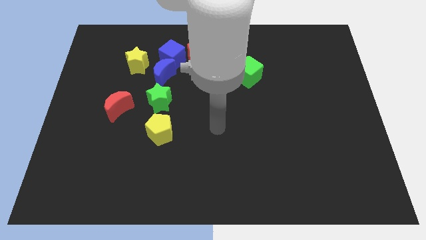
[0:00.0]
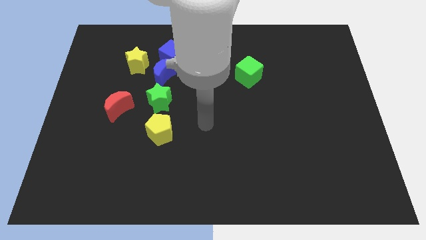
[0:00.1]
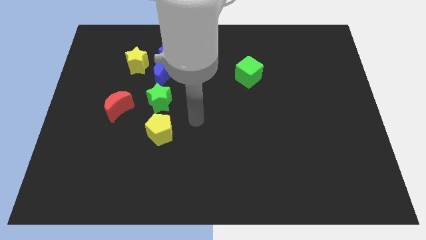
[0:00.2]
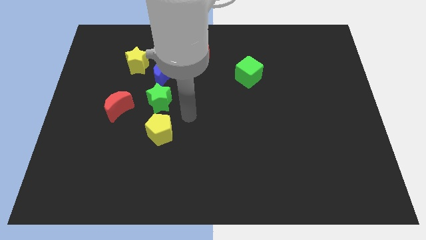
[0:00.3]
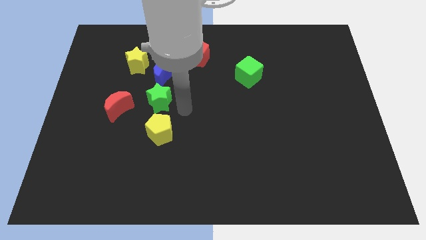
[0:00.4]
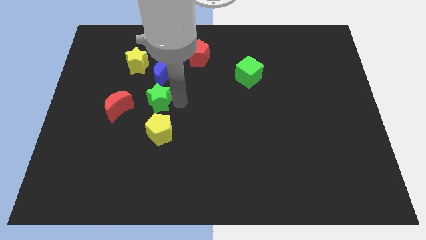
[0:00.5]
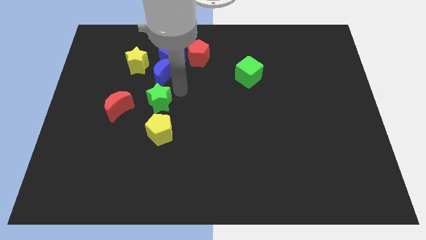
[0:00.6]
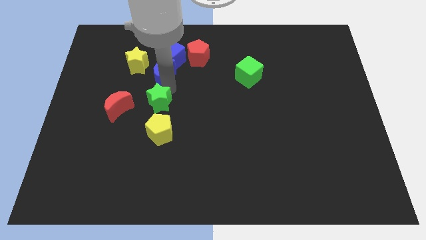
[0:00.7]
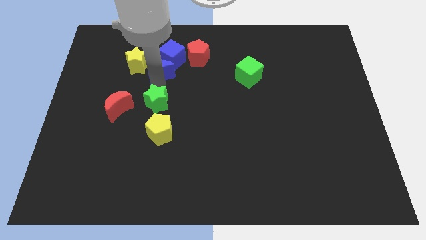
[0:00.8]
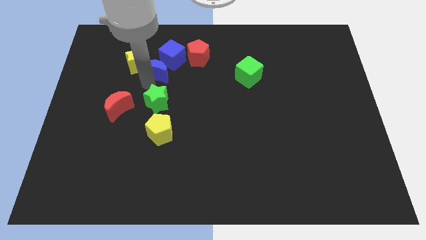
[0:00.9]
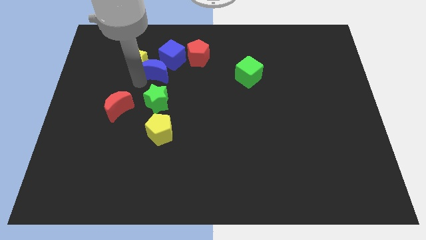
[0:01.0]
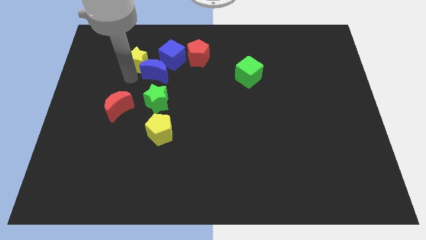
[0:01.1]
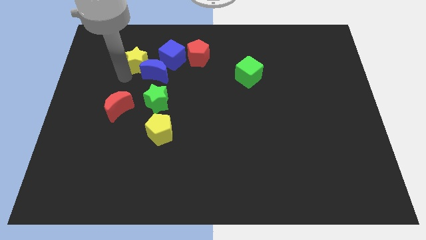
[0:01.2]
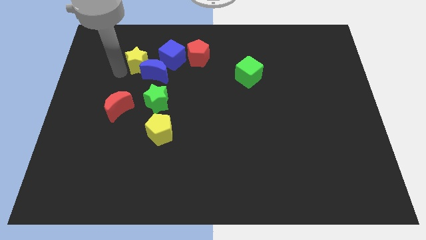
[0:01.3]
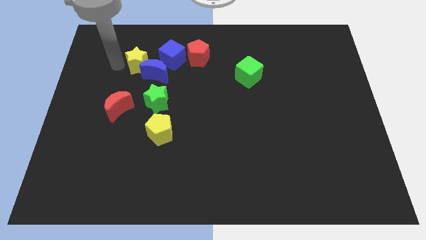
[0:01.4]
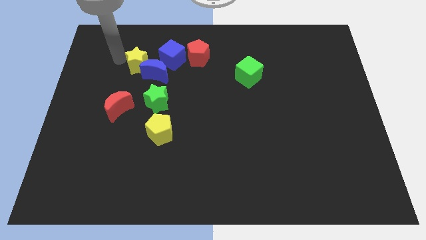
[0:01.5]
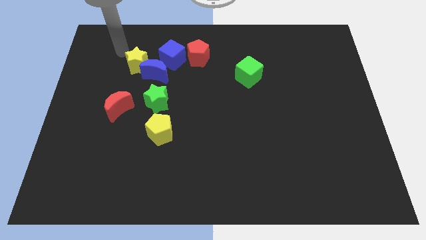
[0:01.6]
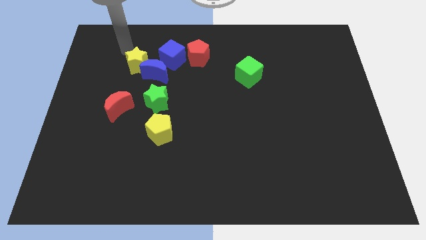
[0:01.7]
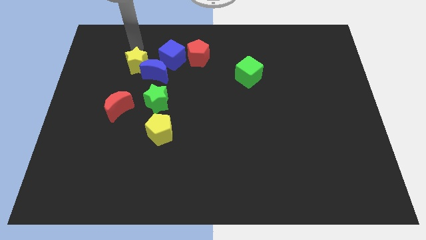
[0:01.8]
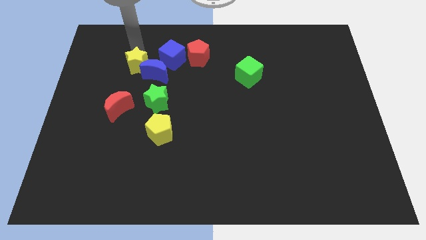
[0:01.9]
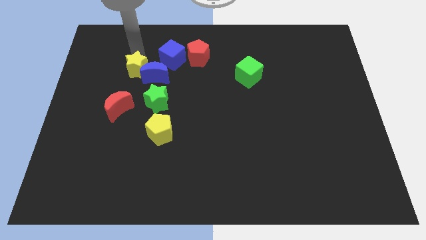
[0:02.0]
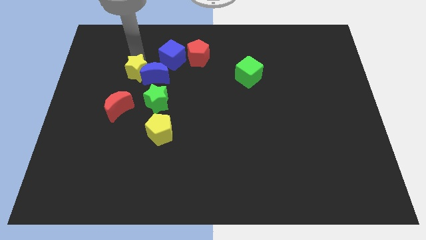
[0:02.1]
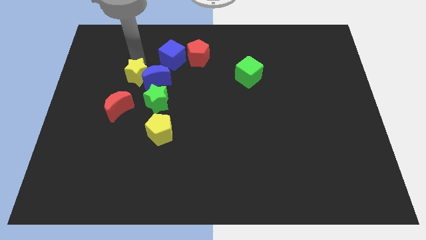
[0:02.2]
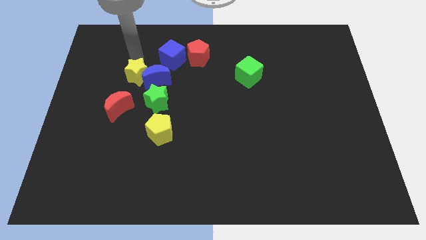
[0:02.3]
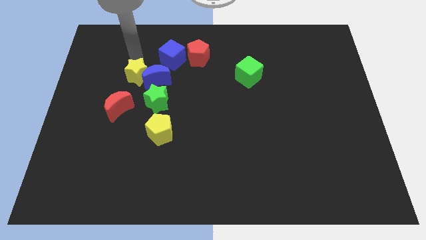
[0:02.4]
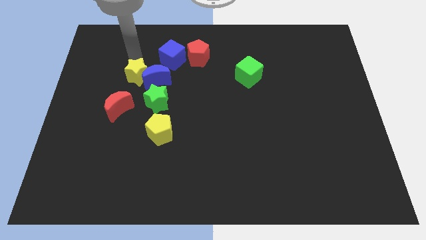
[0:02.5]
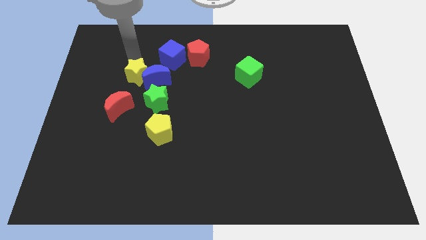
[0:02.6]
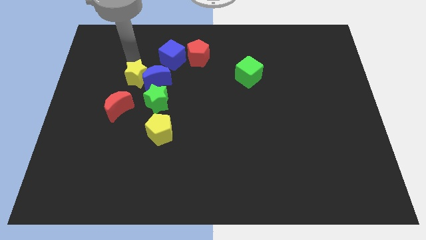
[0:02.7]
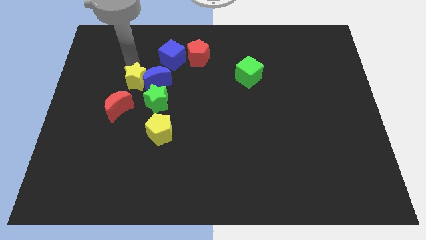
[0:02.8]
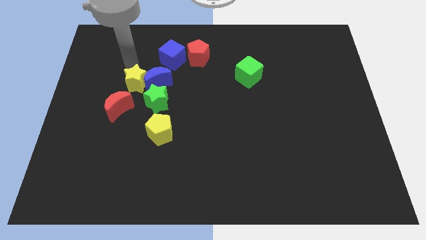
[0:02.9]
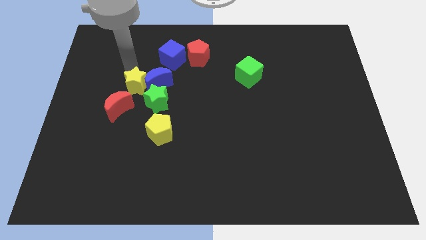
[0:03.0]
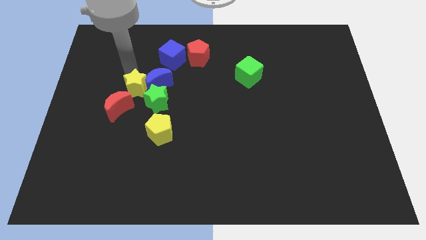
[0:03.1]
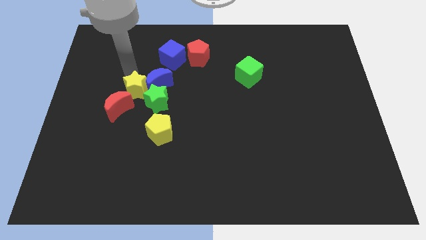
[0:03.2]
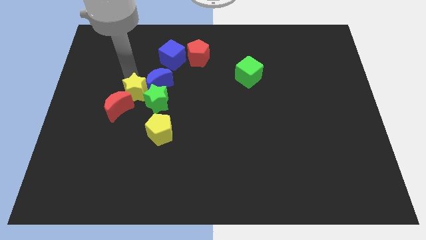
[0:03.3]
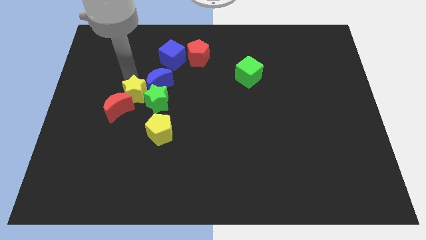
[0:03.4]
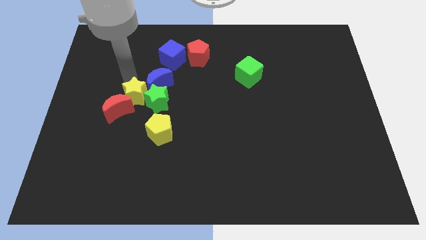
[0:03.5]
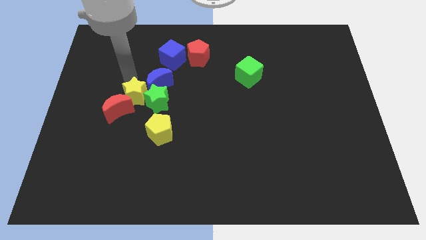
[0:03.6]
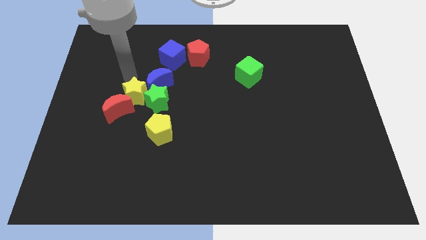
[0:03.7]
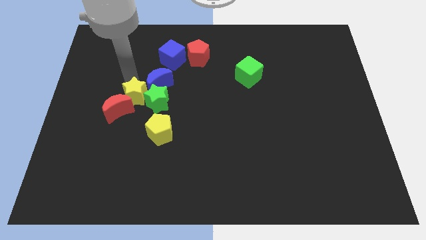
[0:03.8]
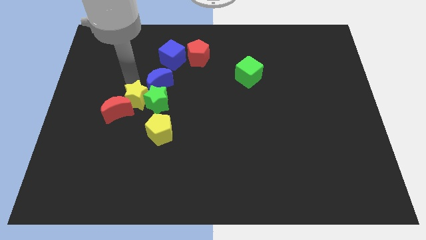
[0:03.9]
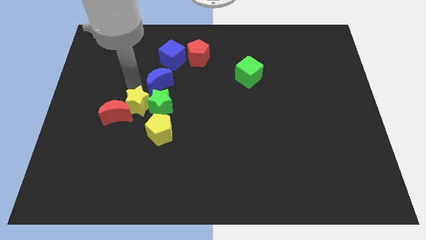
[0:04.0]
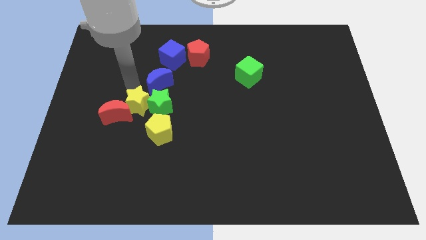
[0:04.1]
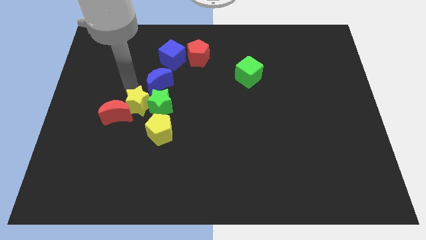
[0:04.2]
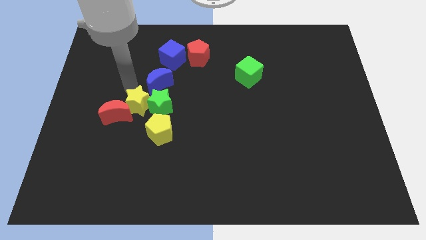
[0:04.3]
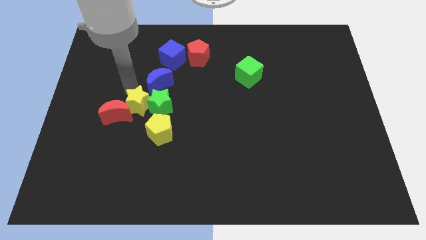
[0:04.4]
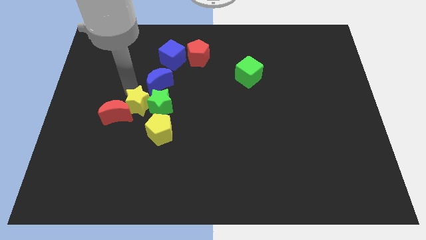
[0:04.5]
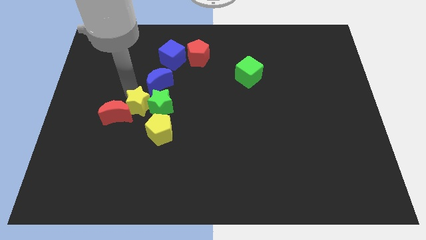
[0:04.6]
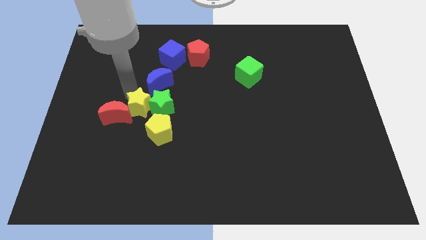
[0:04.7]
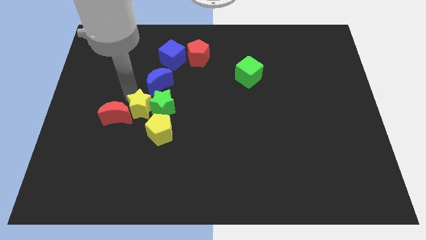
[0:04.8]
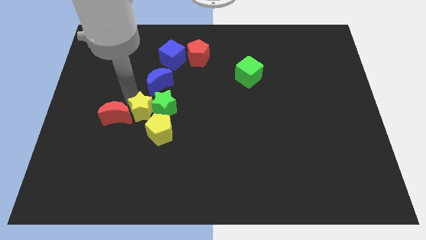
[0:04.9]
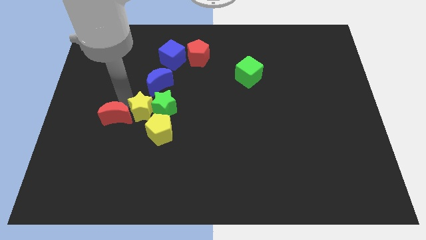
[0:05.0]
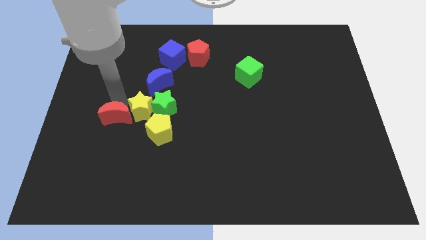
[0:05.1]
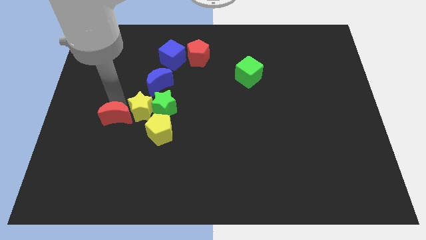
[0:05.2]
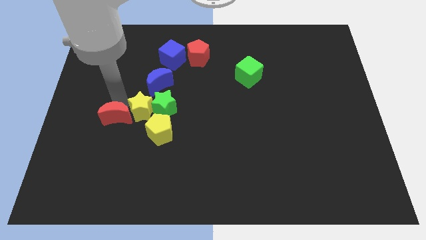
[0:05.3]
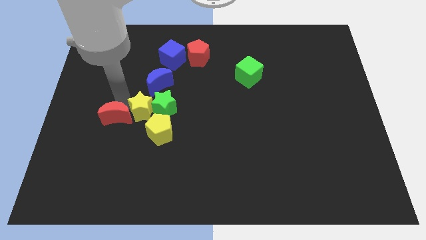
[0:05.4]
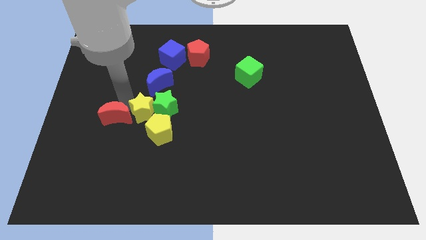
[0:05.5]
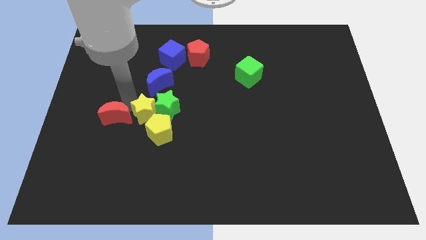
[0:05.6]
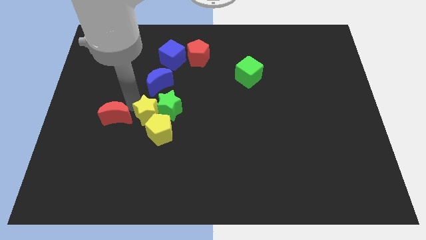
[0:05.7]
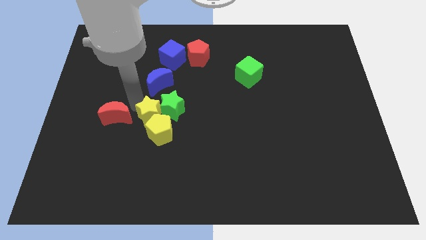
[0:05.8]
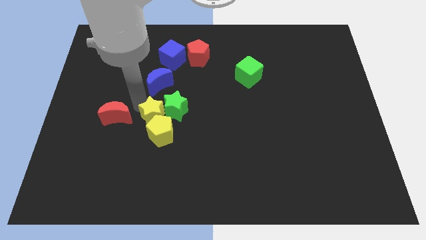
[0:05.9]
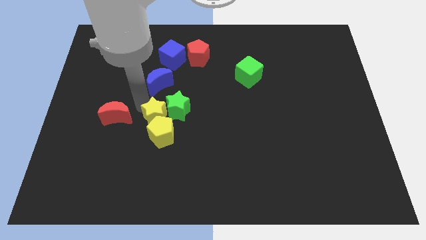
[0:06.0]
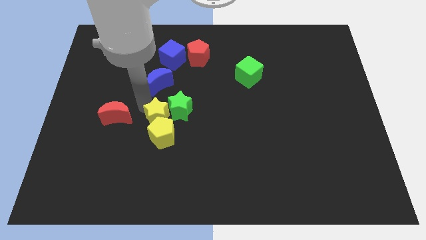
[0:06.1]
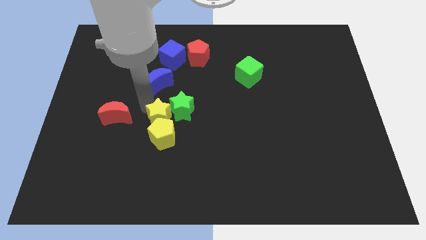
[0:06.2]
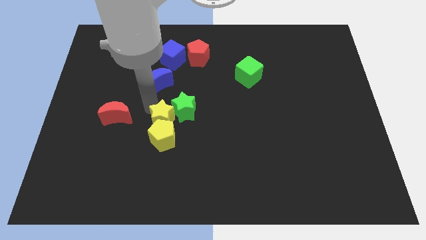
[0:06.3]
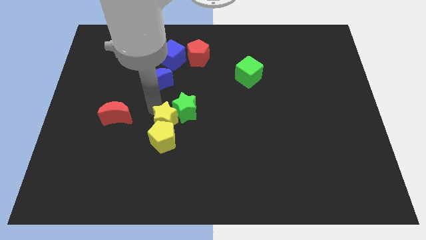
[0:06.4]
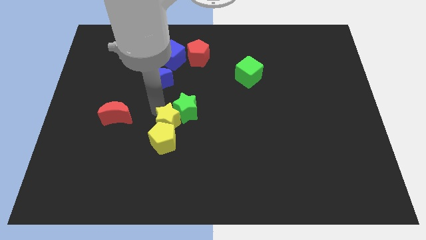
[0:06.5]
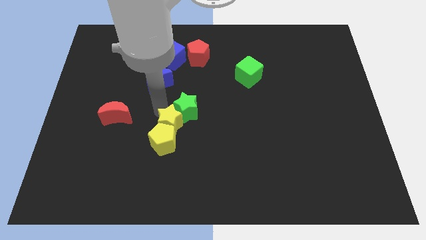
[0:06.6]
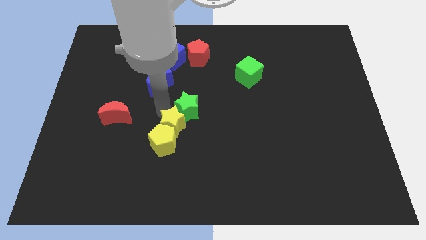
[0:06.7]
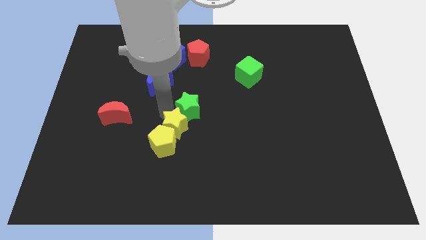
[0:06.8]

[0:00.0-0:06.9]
slide the yellow star down and to the right

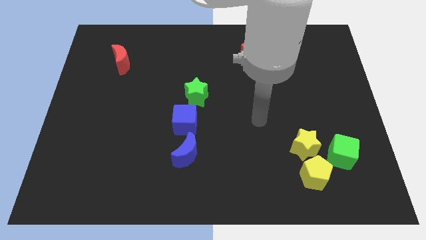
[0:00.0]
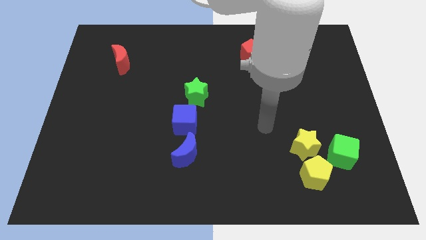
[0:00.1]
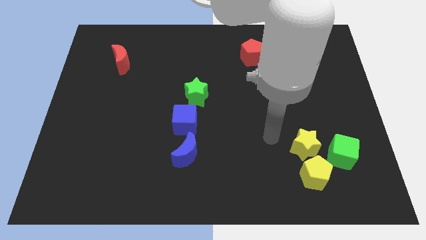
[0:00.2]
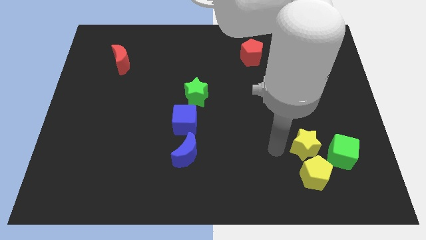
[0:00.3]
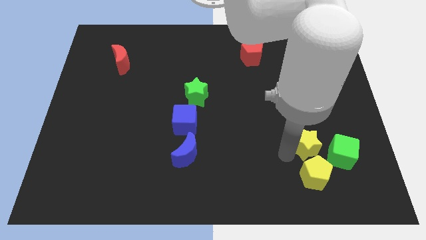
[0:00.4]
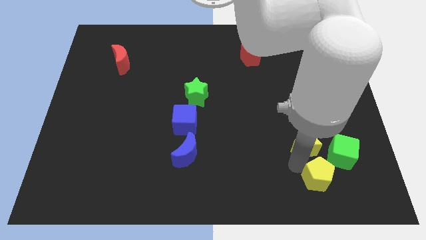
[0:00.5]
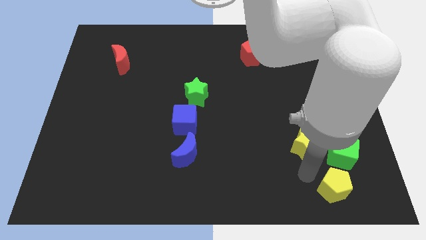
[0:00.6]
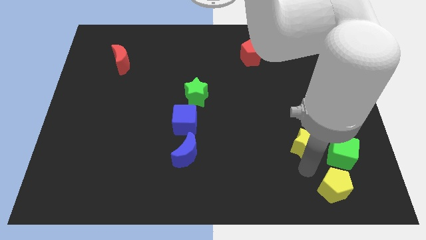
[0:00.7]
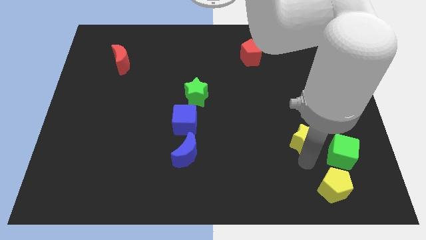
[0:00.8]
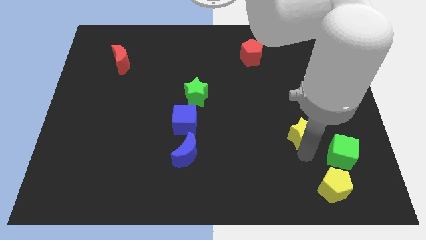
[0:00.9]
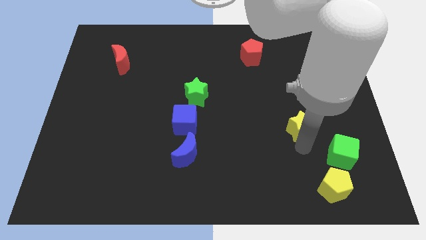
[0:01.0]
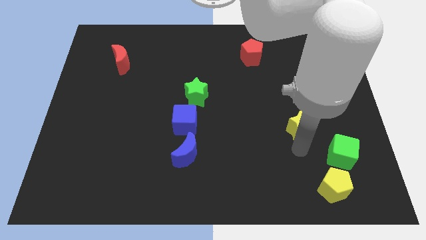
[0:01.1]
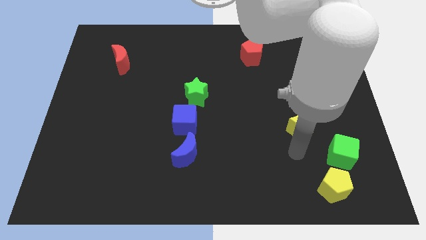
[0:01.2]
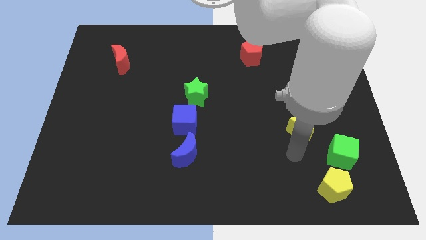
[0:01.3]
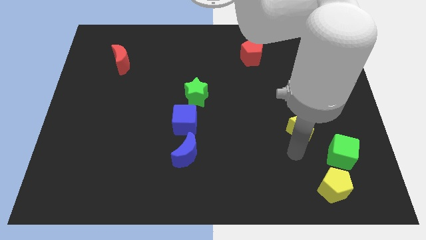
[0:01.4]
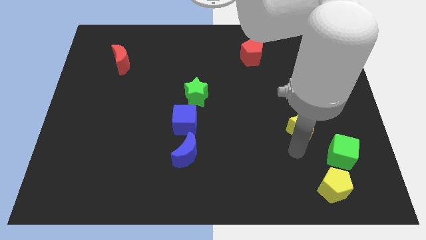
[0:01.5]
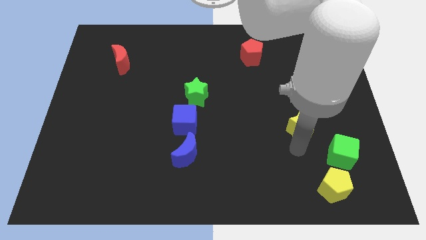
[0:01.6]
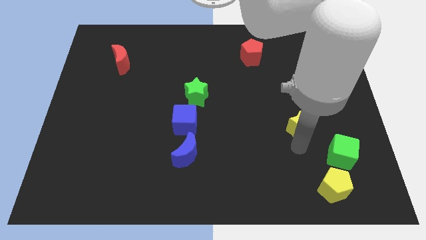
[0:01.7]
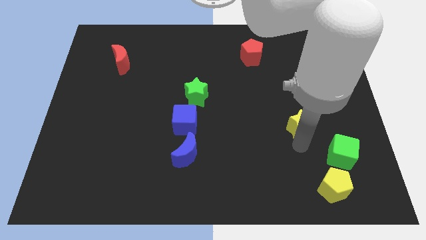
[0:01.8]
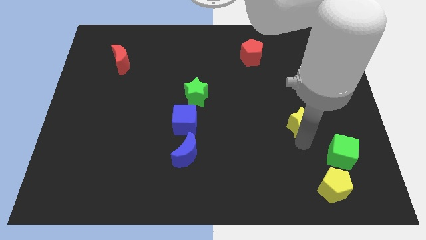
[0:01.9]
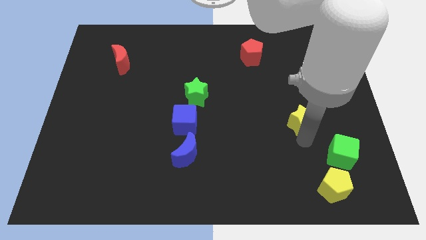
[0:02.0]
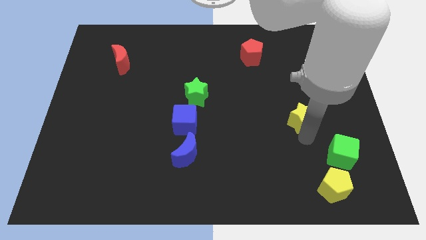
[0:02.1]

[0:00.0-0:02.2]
move the yellow star a little bit upwards
